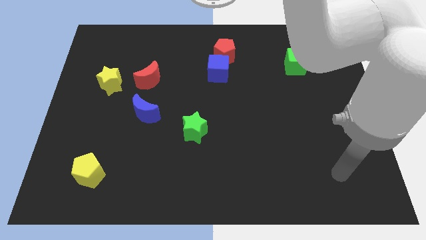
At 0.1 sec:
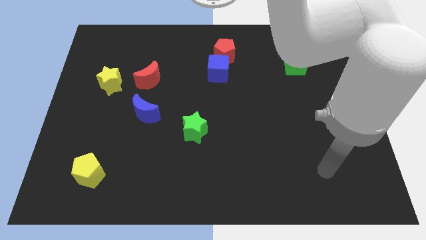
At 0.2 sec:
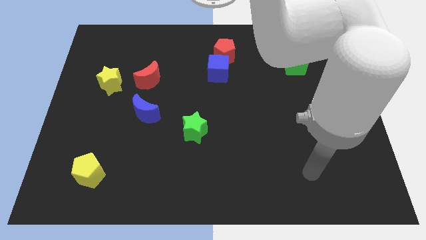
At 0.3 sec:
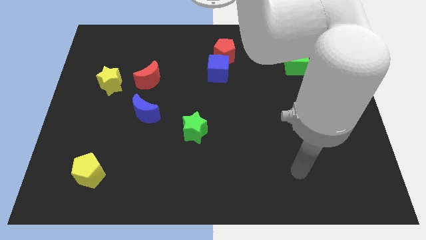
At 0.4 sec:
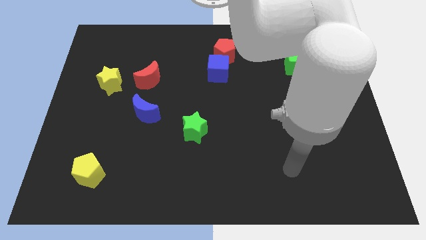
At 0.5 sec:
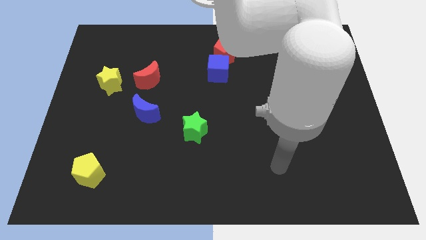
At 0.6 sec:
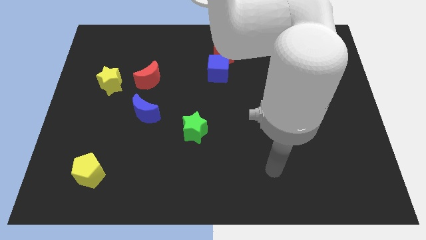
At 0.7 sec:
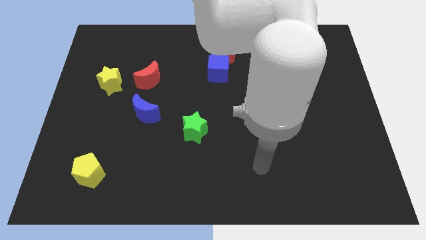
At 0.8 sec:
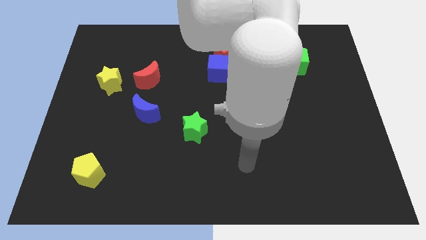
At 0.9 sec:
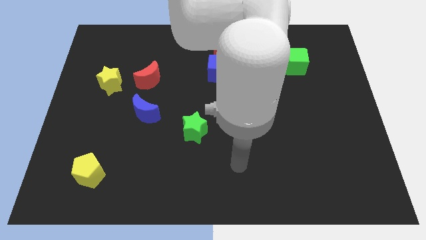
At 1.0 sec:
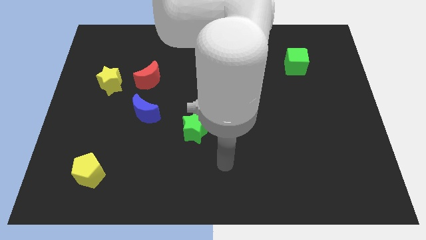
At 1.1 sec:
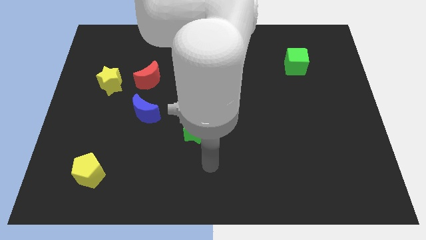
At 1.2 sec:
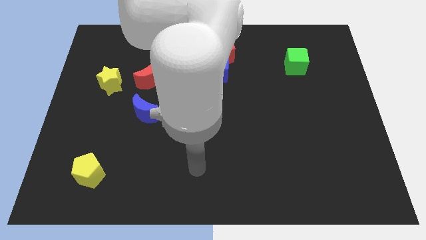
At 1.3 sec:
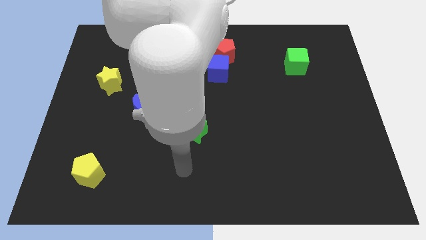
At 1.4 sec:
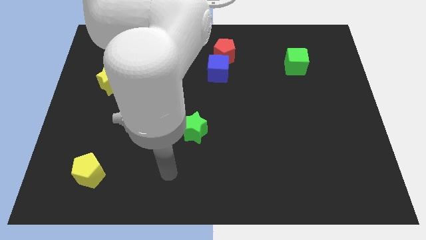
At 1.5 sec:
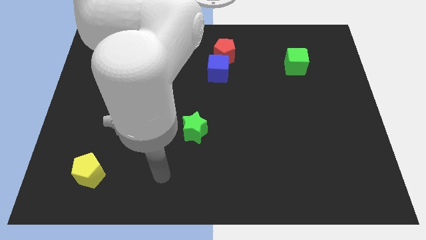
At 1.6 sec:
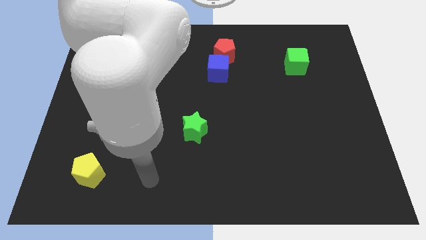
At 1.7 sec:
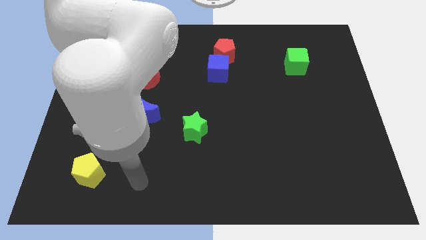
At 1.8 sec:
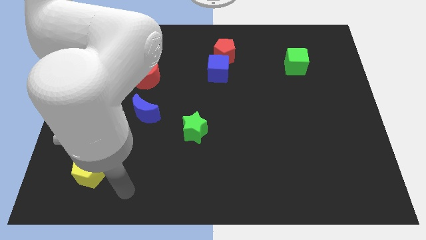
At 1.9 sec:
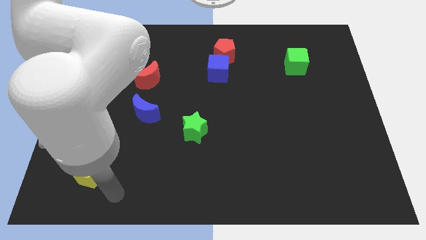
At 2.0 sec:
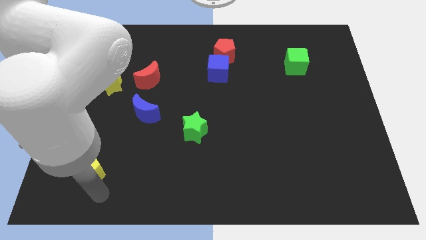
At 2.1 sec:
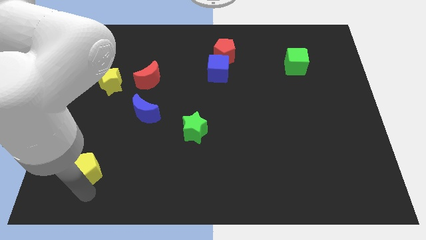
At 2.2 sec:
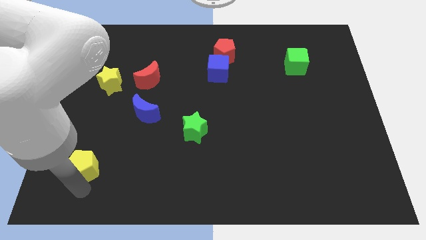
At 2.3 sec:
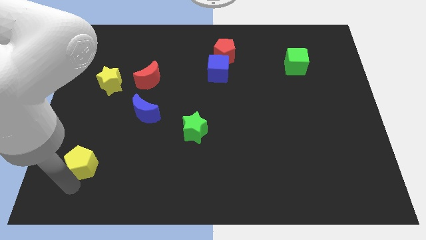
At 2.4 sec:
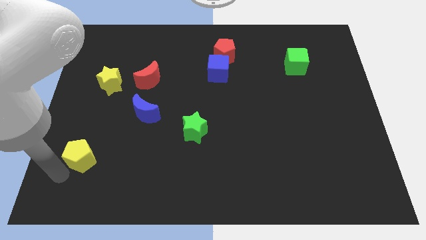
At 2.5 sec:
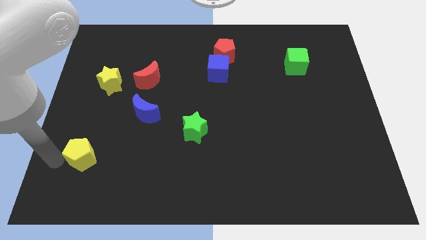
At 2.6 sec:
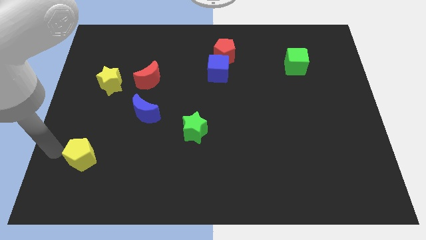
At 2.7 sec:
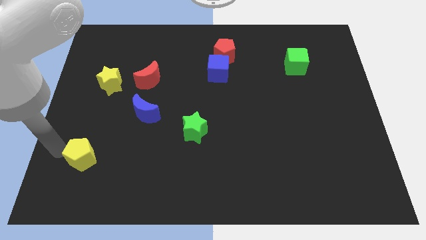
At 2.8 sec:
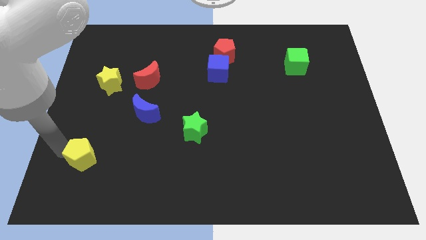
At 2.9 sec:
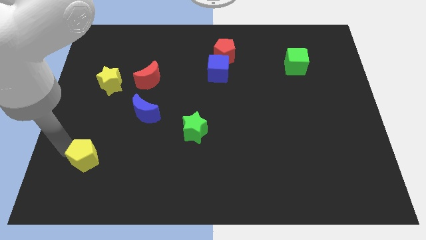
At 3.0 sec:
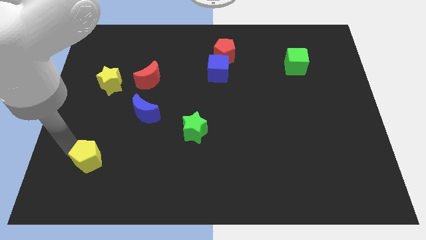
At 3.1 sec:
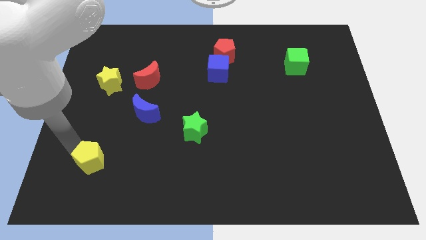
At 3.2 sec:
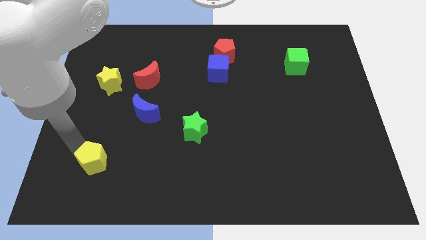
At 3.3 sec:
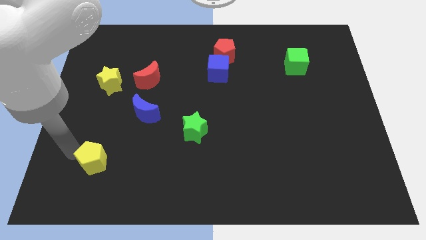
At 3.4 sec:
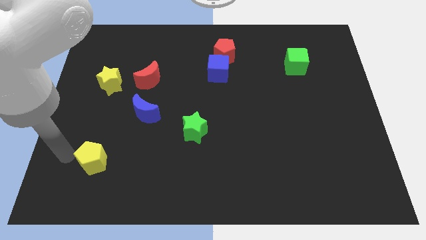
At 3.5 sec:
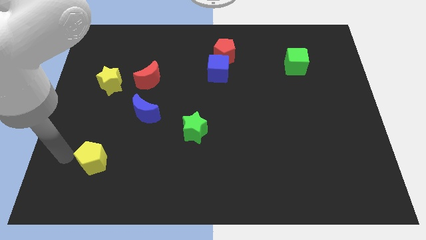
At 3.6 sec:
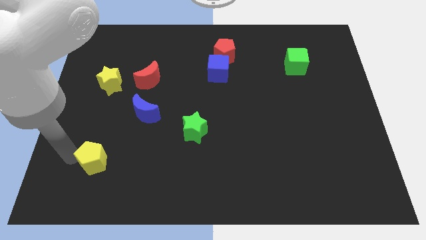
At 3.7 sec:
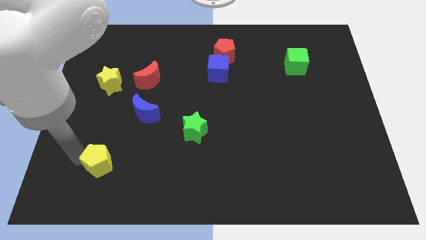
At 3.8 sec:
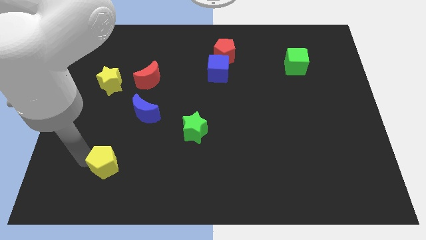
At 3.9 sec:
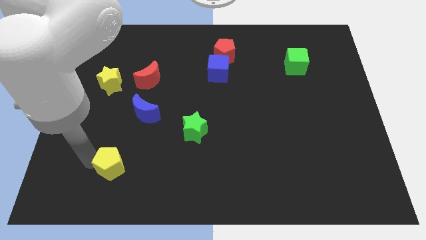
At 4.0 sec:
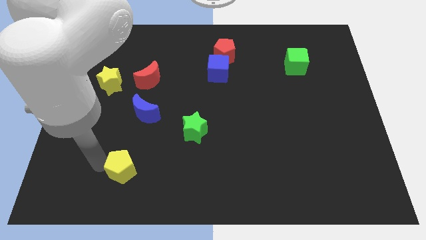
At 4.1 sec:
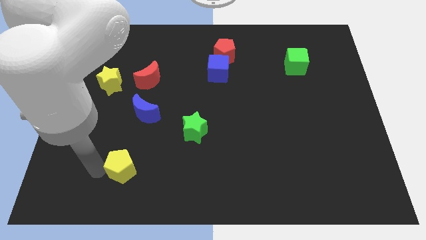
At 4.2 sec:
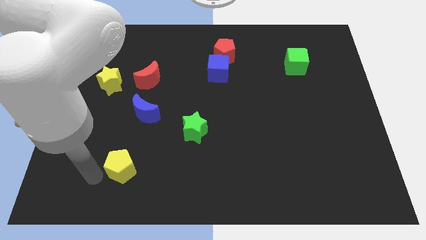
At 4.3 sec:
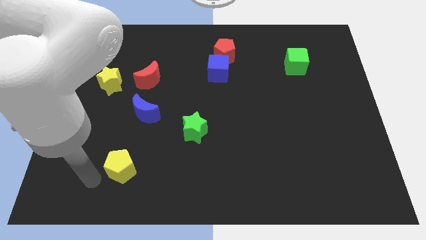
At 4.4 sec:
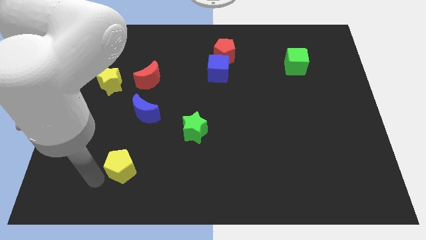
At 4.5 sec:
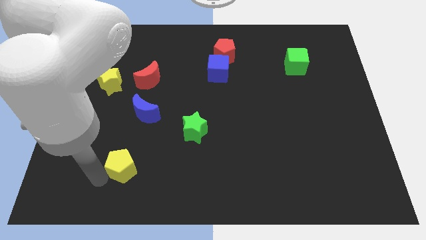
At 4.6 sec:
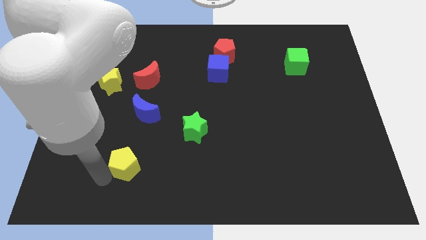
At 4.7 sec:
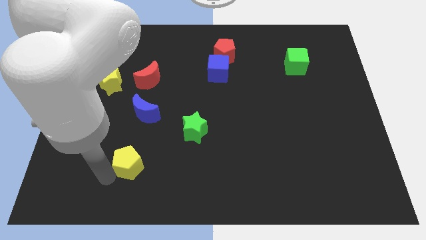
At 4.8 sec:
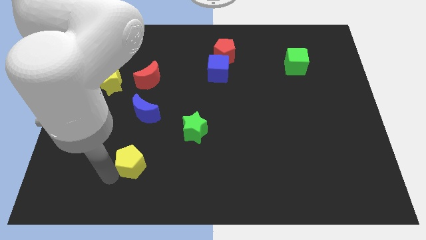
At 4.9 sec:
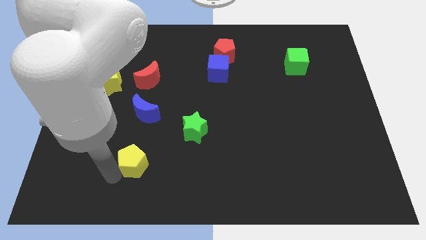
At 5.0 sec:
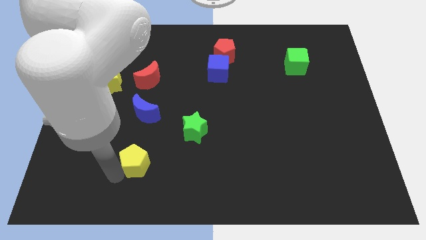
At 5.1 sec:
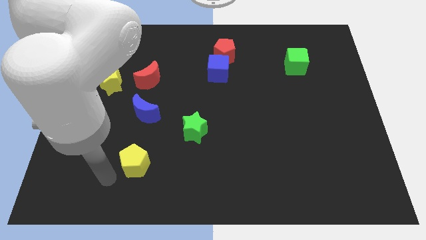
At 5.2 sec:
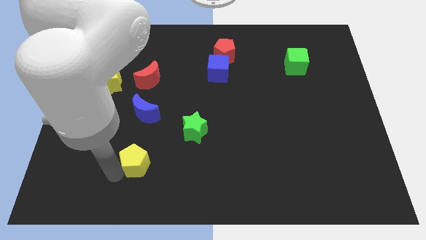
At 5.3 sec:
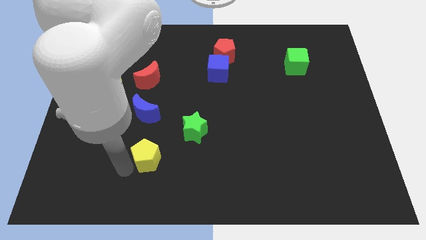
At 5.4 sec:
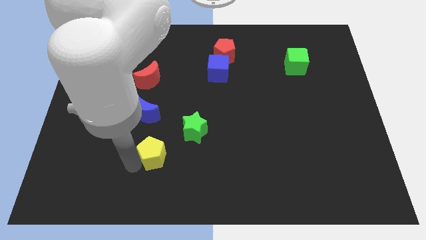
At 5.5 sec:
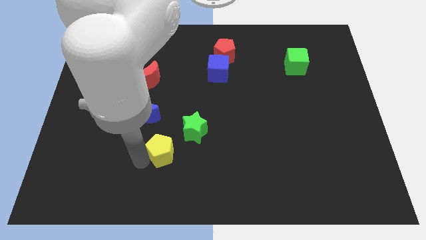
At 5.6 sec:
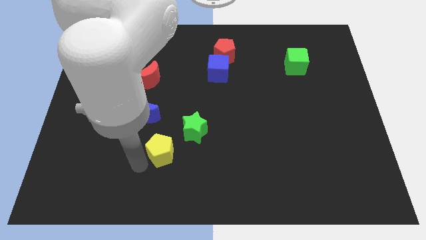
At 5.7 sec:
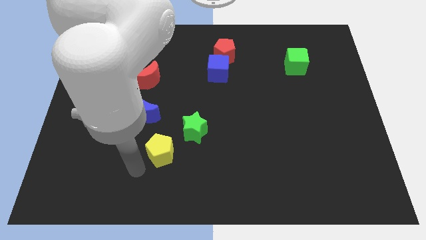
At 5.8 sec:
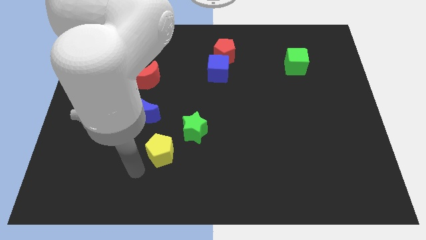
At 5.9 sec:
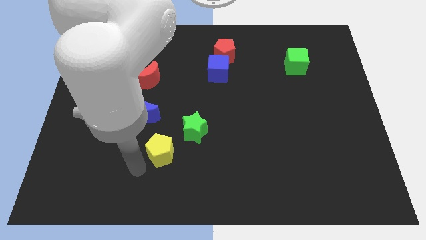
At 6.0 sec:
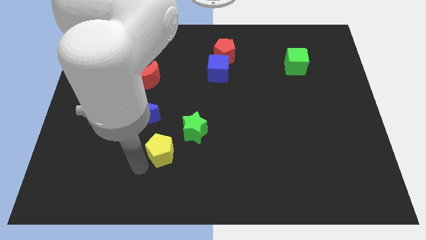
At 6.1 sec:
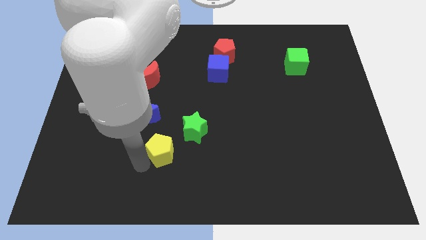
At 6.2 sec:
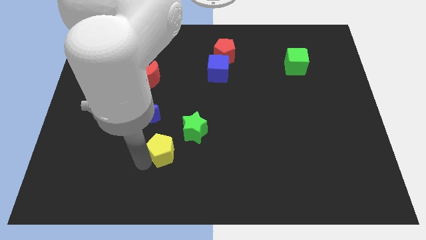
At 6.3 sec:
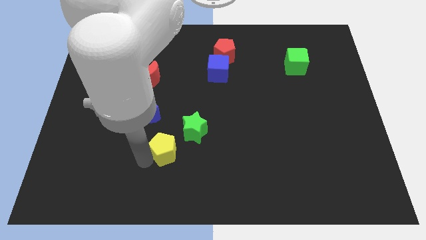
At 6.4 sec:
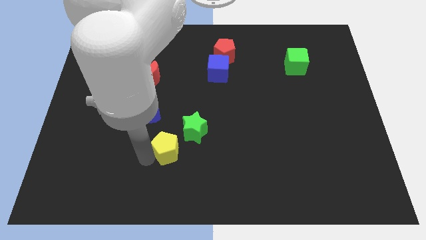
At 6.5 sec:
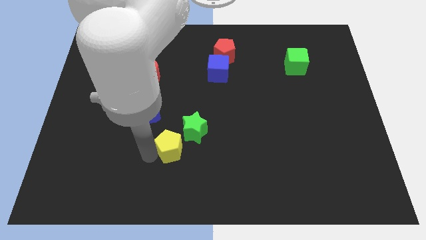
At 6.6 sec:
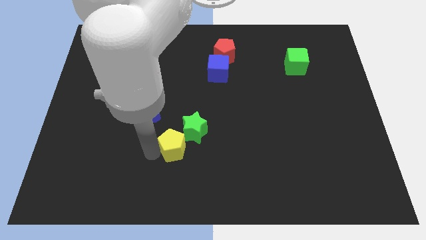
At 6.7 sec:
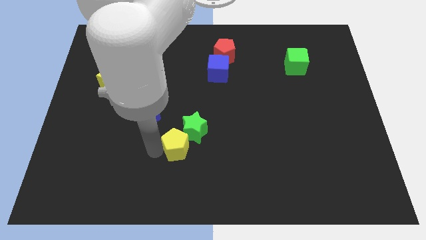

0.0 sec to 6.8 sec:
move the yellow pentagon next to the green star

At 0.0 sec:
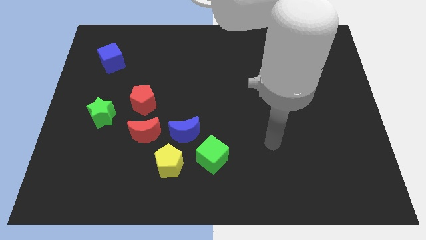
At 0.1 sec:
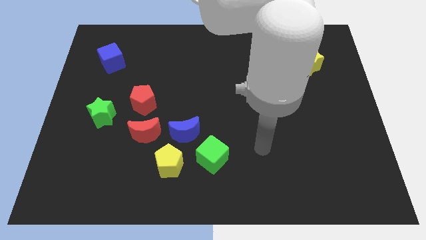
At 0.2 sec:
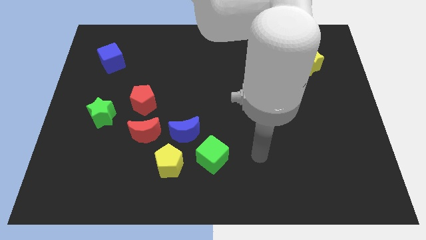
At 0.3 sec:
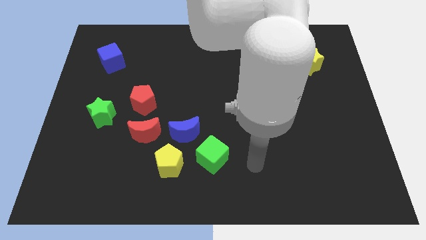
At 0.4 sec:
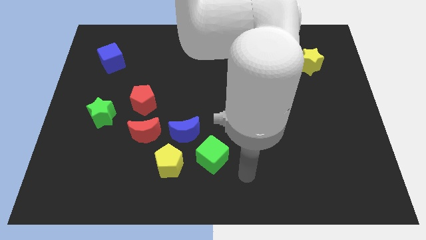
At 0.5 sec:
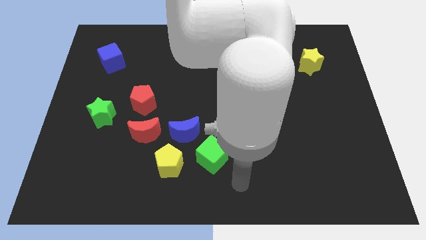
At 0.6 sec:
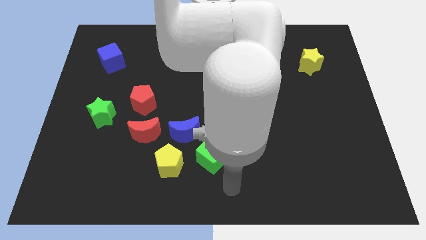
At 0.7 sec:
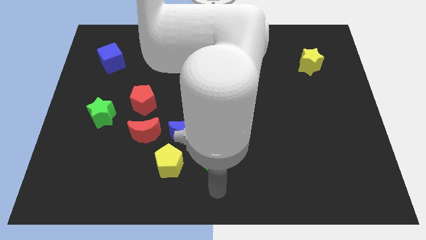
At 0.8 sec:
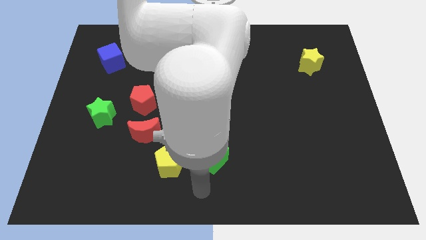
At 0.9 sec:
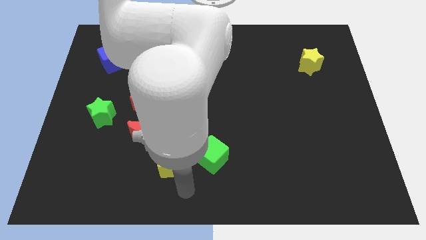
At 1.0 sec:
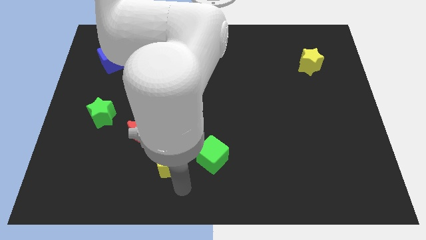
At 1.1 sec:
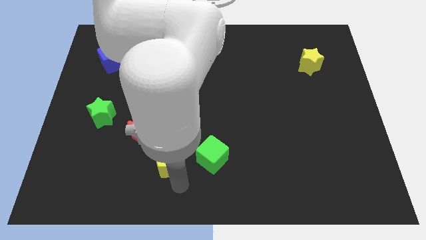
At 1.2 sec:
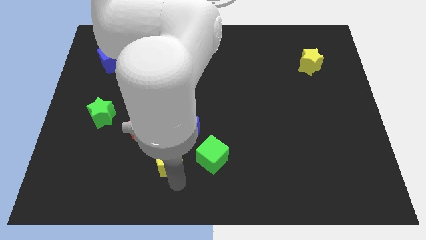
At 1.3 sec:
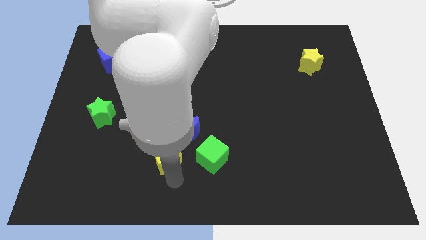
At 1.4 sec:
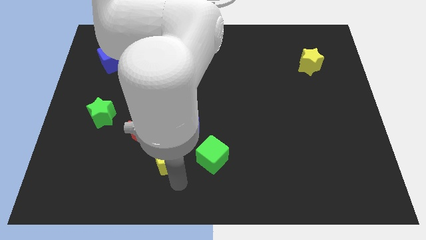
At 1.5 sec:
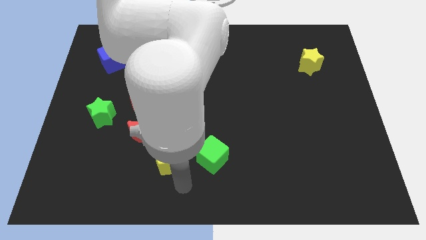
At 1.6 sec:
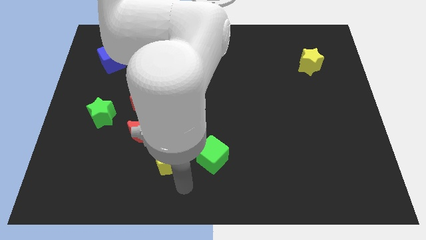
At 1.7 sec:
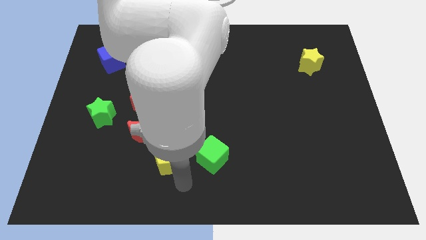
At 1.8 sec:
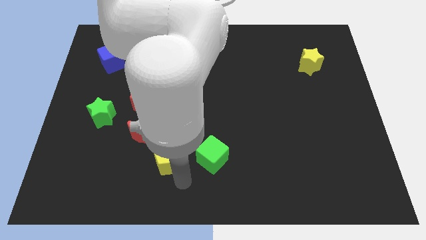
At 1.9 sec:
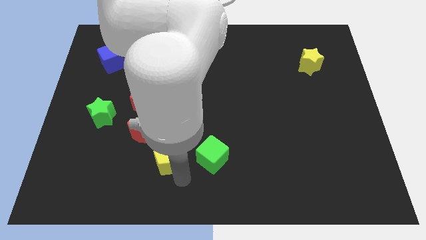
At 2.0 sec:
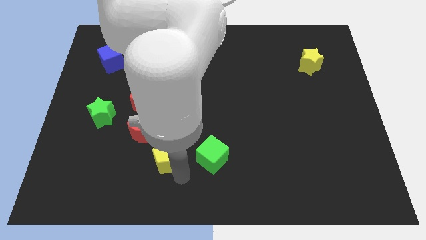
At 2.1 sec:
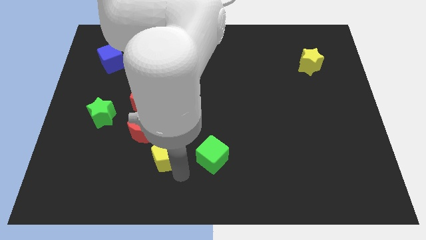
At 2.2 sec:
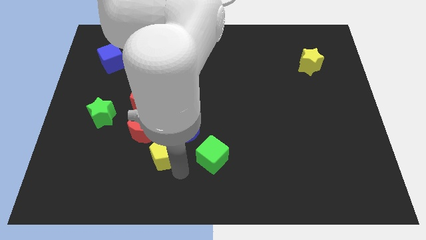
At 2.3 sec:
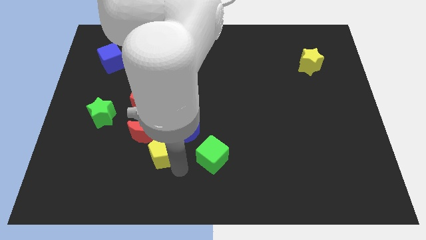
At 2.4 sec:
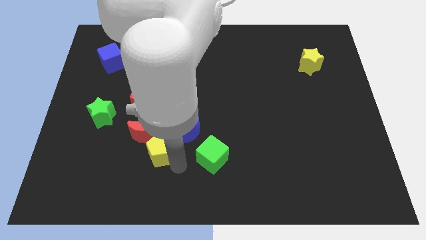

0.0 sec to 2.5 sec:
put the yellow pentagon to the red moon
